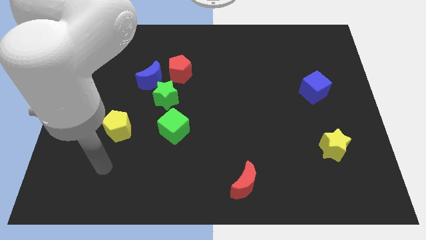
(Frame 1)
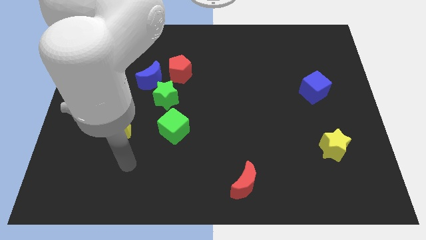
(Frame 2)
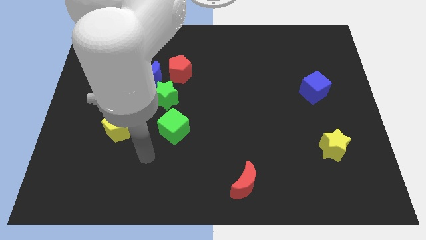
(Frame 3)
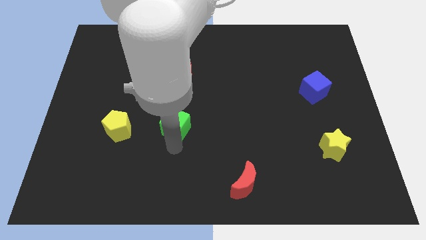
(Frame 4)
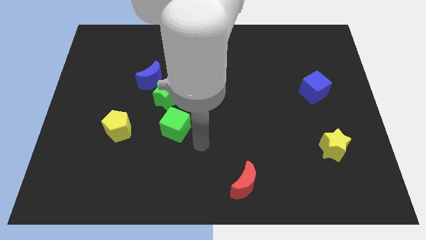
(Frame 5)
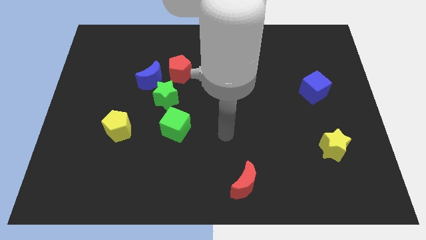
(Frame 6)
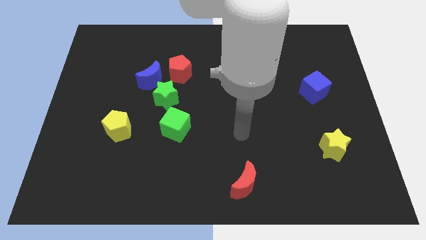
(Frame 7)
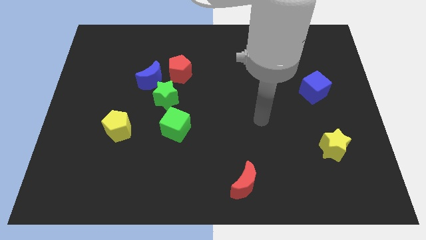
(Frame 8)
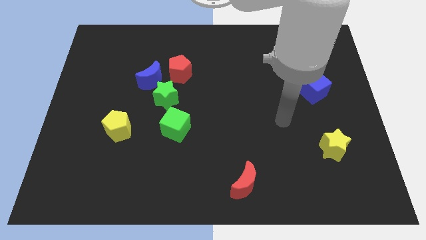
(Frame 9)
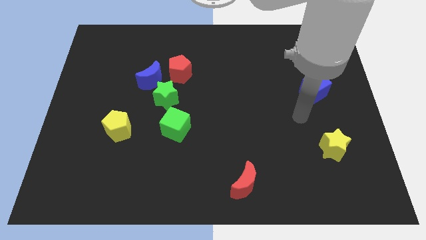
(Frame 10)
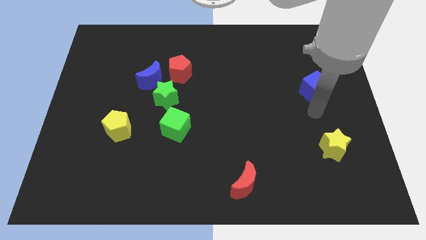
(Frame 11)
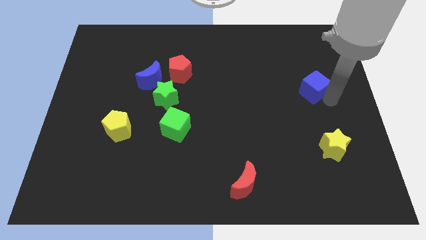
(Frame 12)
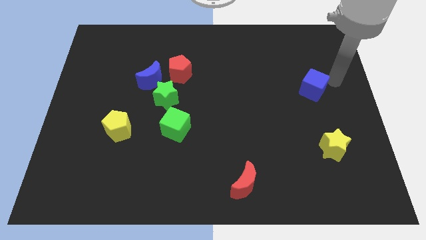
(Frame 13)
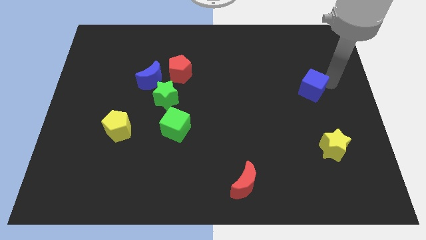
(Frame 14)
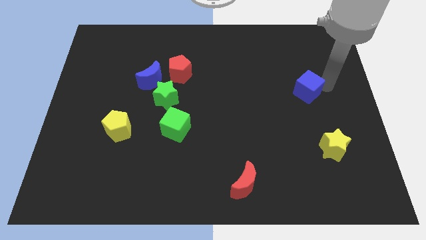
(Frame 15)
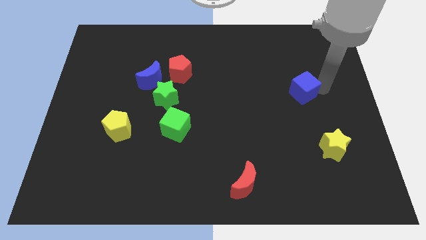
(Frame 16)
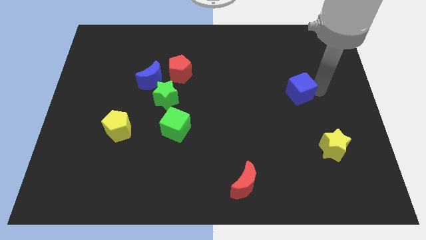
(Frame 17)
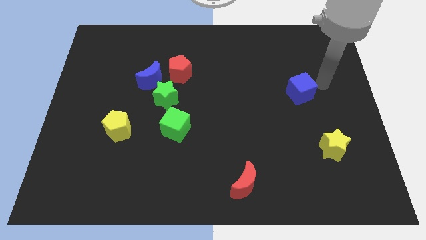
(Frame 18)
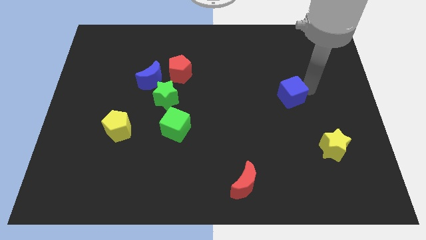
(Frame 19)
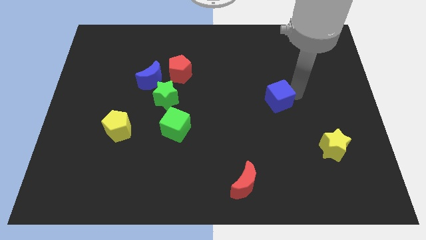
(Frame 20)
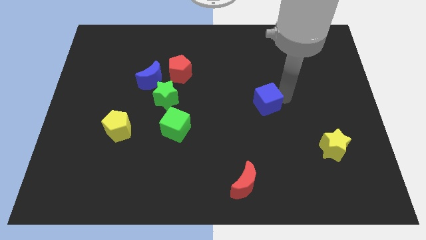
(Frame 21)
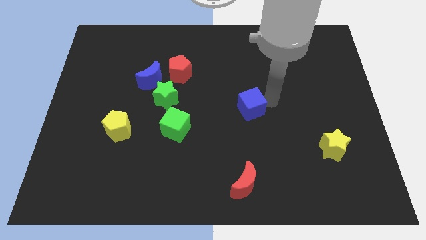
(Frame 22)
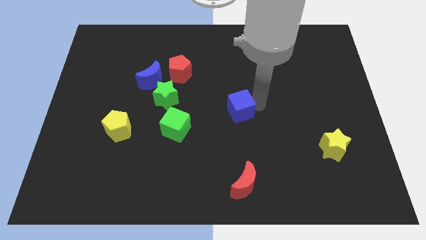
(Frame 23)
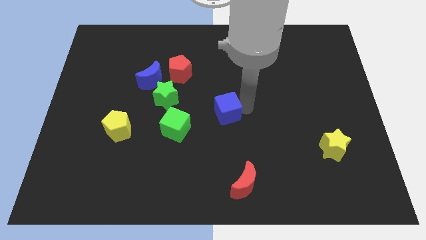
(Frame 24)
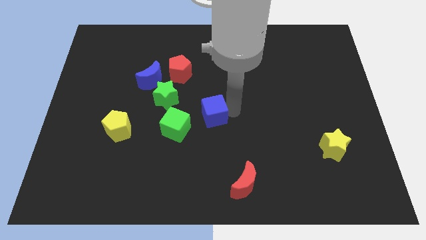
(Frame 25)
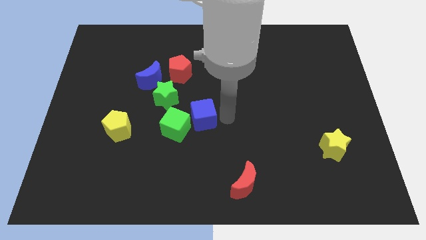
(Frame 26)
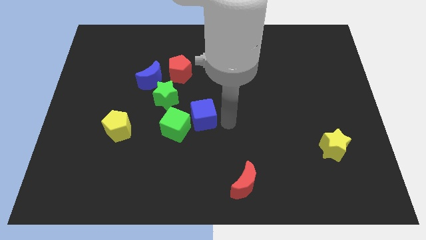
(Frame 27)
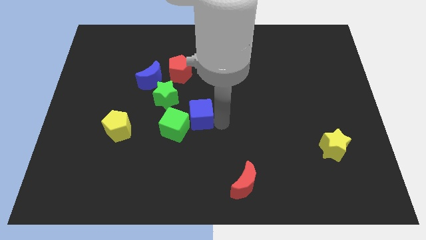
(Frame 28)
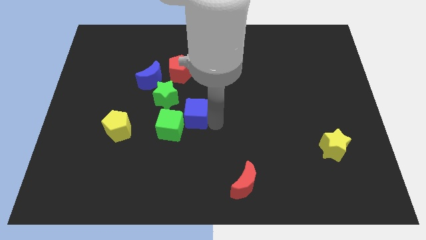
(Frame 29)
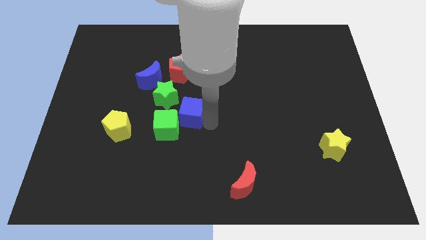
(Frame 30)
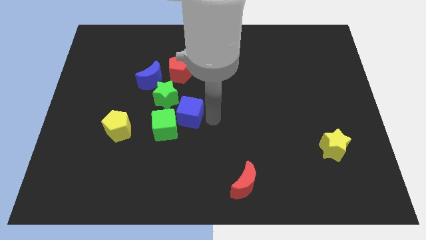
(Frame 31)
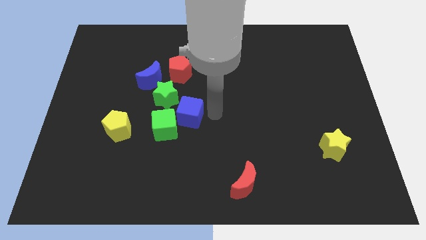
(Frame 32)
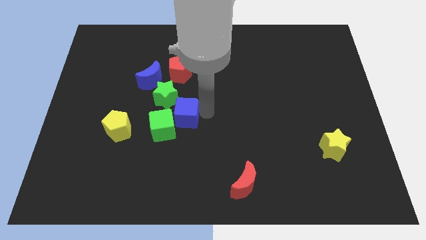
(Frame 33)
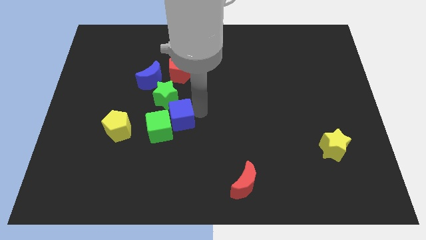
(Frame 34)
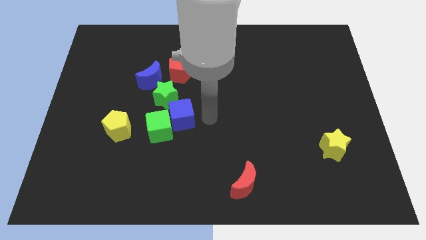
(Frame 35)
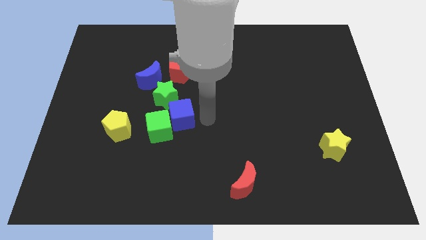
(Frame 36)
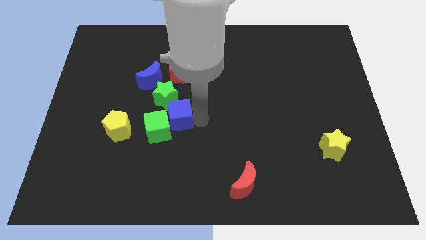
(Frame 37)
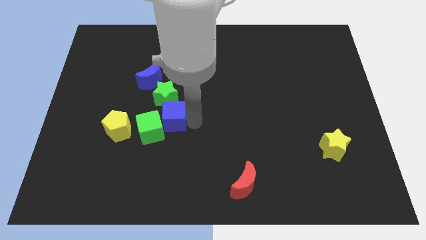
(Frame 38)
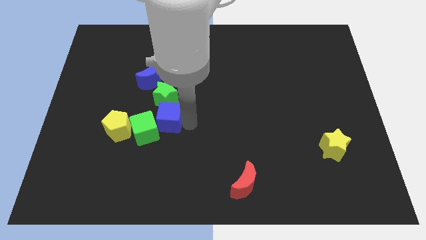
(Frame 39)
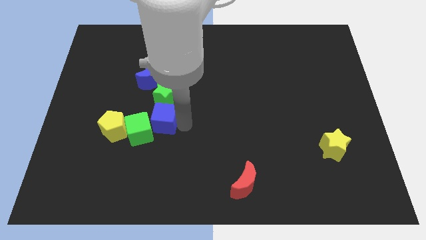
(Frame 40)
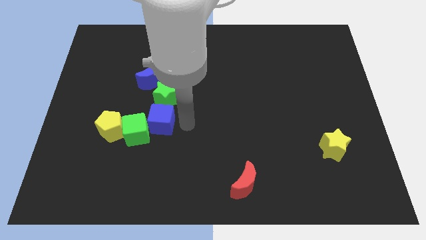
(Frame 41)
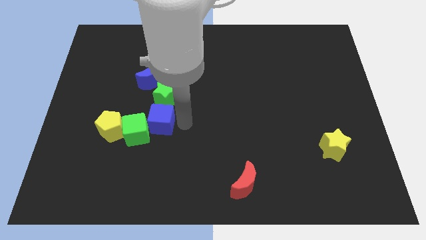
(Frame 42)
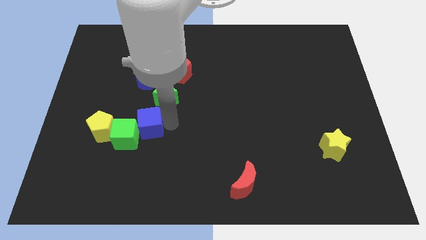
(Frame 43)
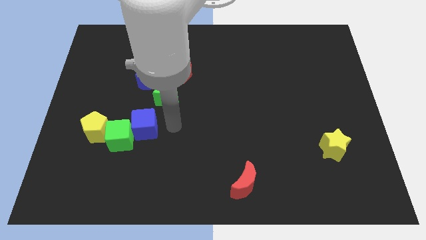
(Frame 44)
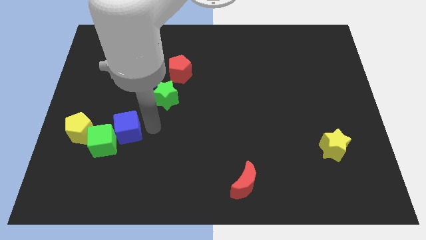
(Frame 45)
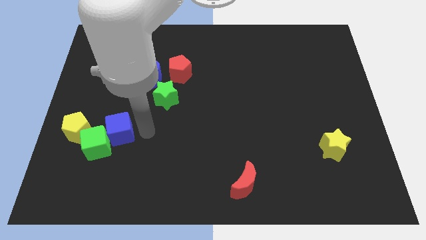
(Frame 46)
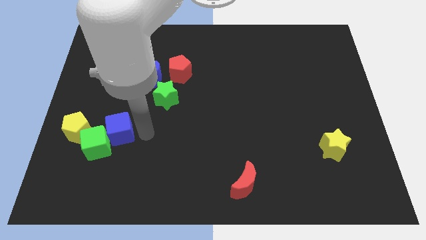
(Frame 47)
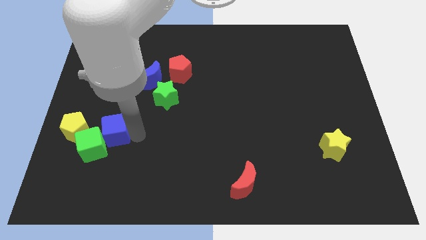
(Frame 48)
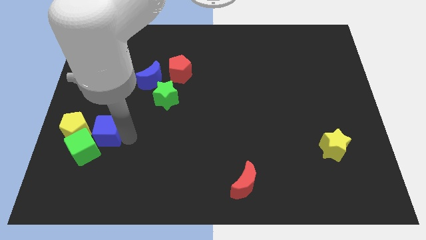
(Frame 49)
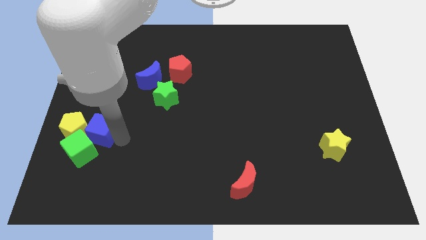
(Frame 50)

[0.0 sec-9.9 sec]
push the blue cube next to the yellow pentagon

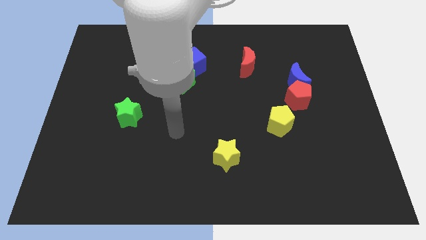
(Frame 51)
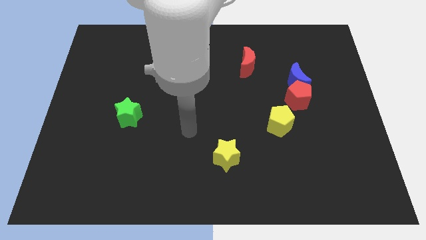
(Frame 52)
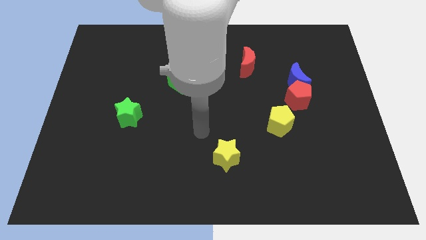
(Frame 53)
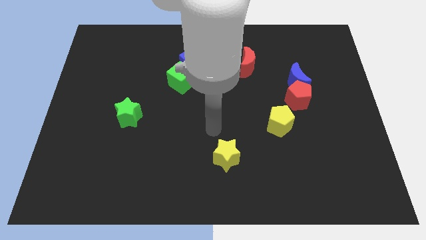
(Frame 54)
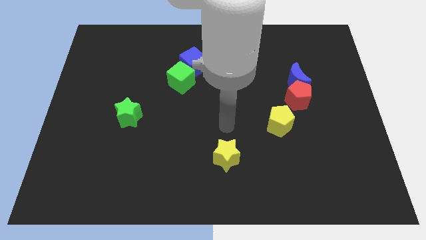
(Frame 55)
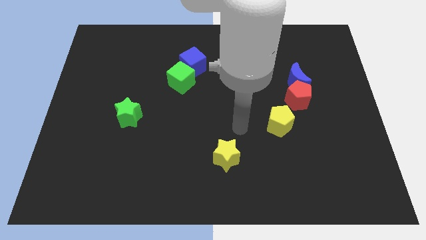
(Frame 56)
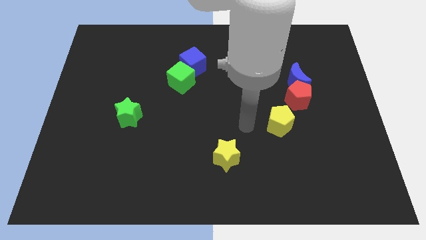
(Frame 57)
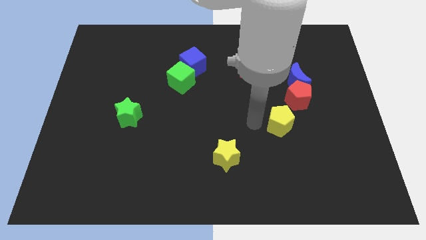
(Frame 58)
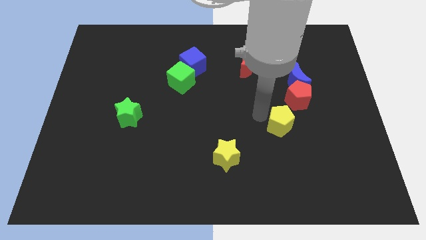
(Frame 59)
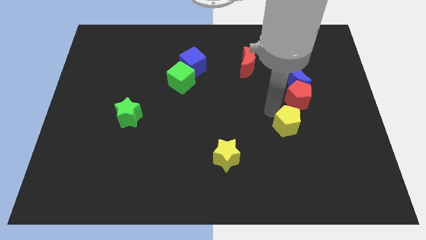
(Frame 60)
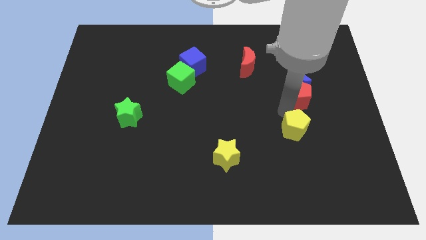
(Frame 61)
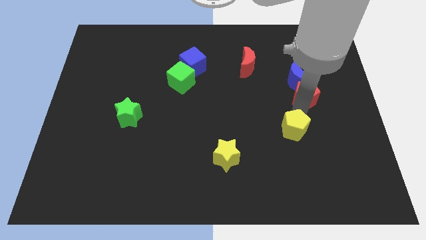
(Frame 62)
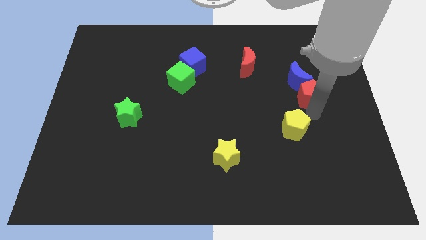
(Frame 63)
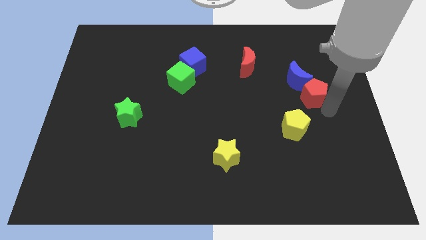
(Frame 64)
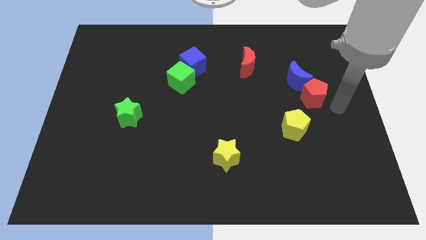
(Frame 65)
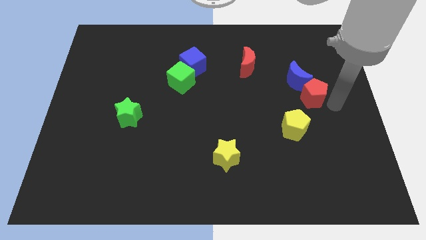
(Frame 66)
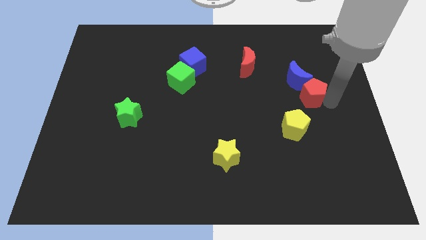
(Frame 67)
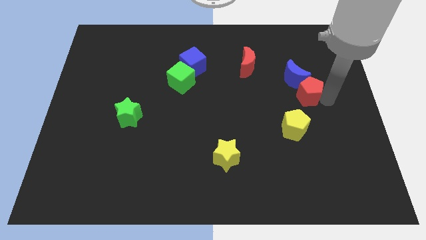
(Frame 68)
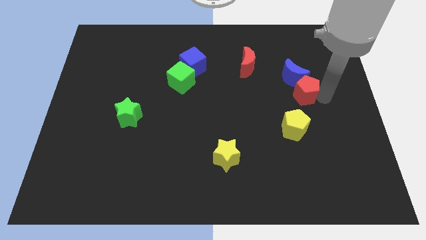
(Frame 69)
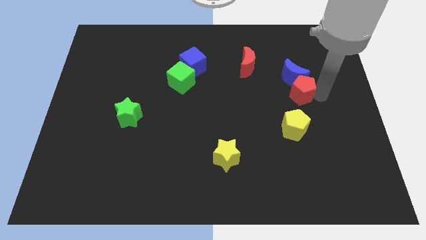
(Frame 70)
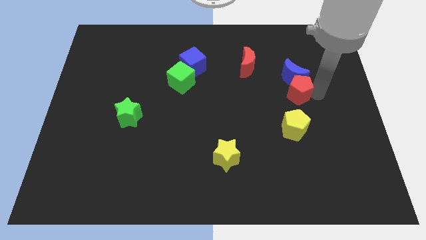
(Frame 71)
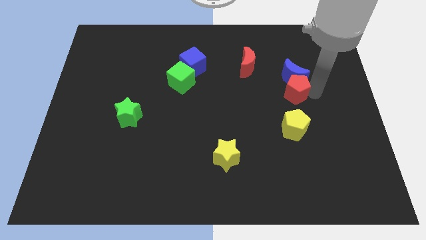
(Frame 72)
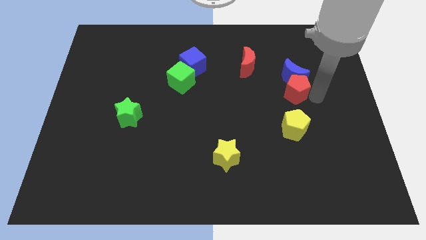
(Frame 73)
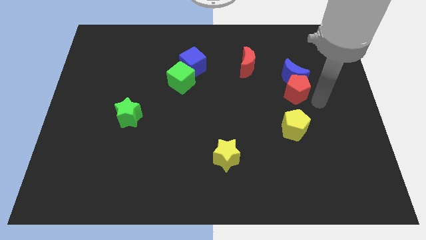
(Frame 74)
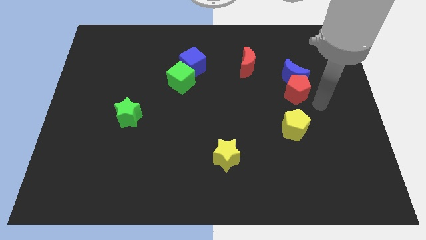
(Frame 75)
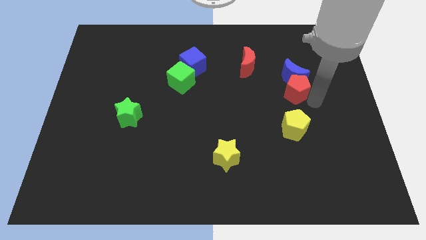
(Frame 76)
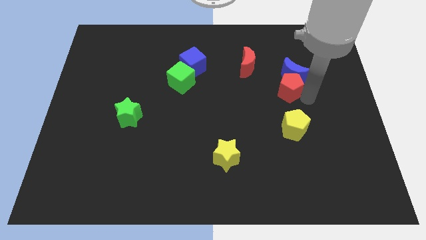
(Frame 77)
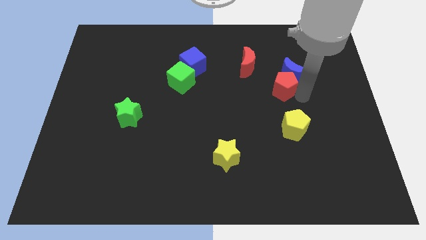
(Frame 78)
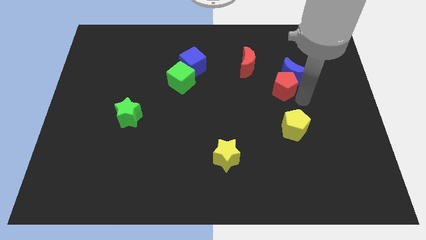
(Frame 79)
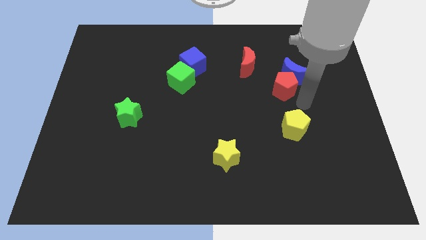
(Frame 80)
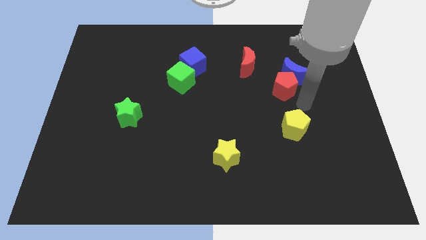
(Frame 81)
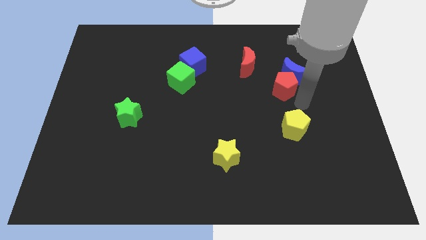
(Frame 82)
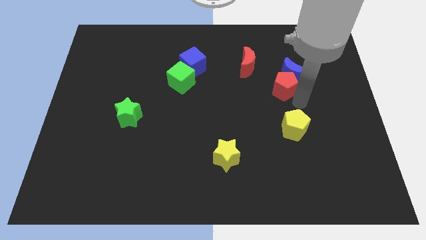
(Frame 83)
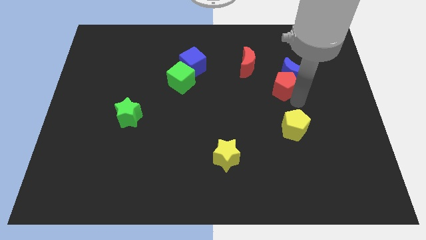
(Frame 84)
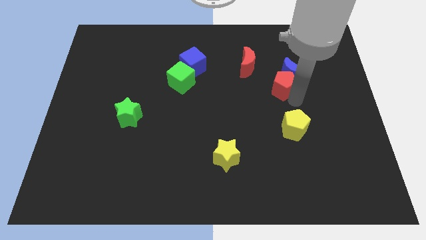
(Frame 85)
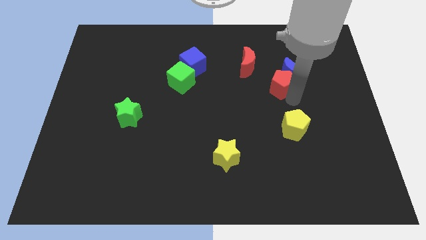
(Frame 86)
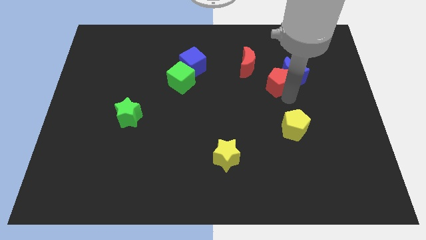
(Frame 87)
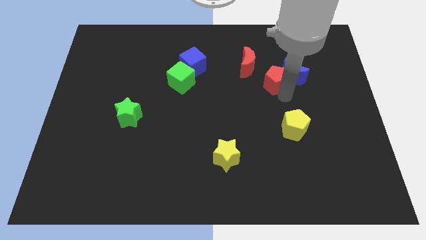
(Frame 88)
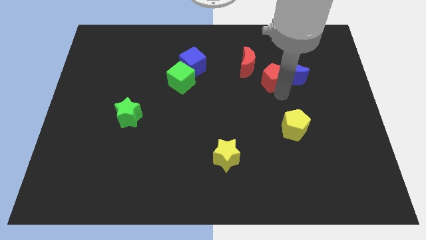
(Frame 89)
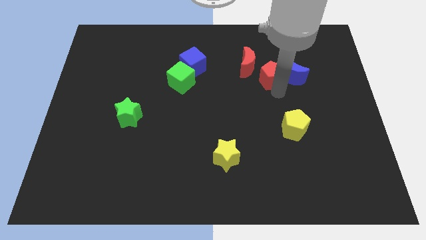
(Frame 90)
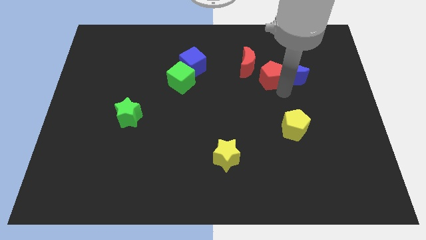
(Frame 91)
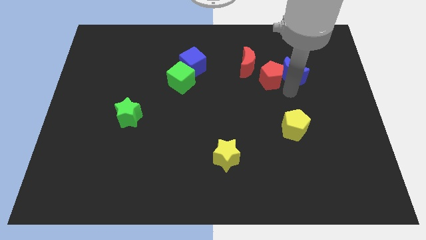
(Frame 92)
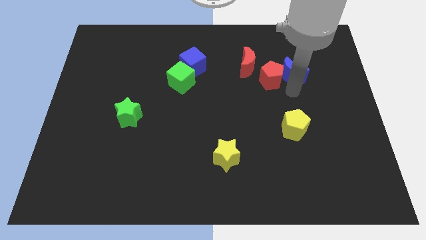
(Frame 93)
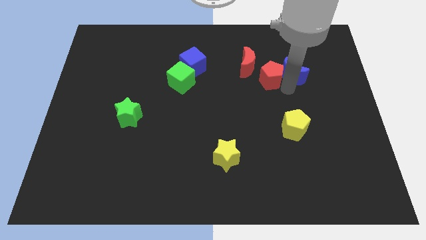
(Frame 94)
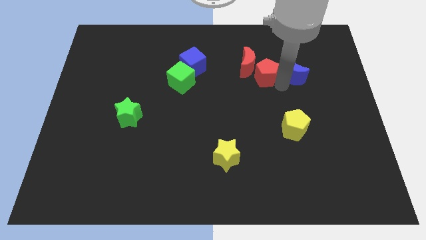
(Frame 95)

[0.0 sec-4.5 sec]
push the red pentagon to the red moon
